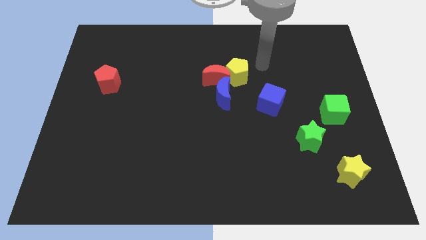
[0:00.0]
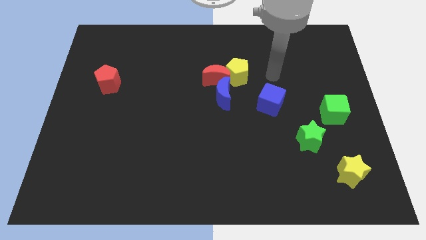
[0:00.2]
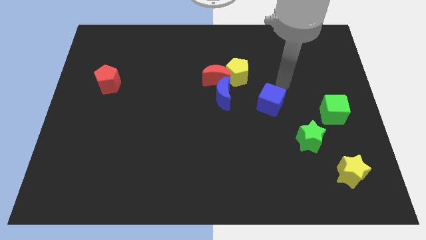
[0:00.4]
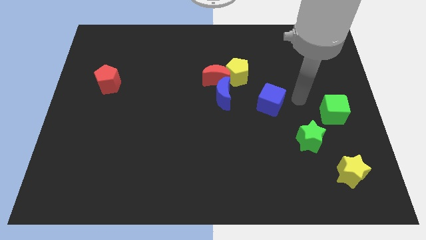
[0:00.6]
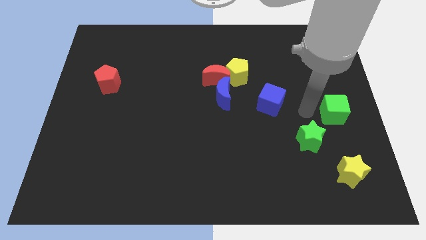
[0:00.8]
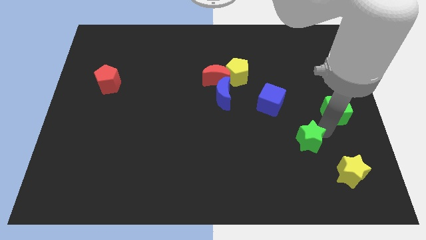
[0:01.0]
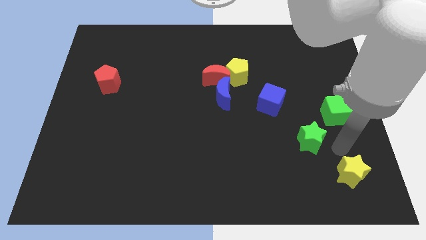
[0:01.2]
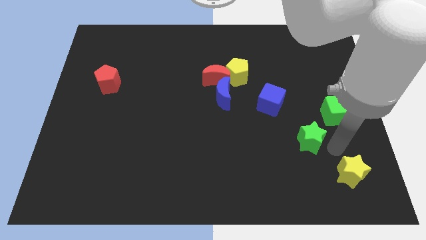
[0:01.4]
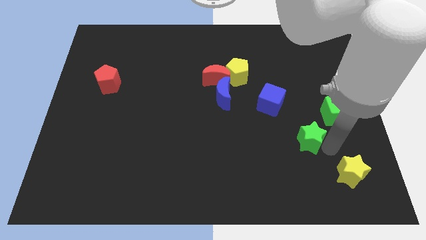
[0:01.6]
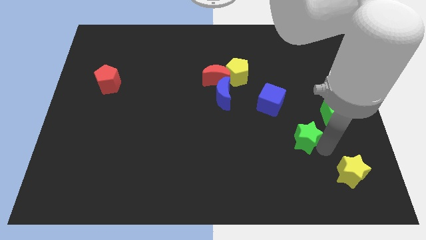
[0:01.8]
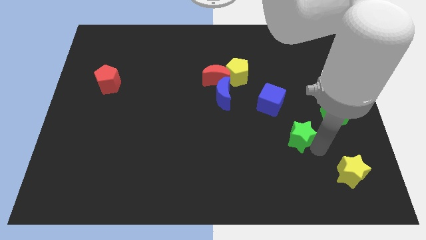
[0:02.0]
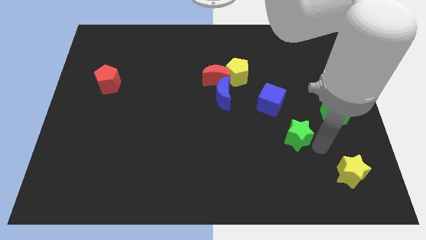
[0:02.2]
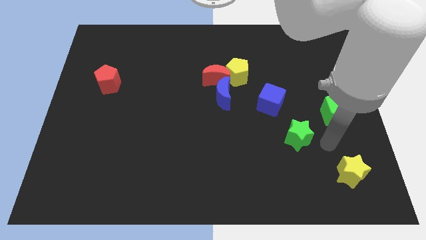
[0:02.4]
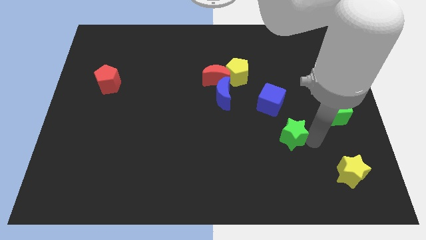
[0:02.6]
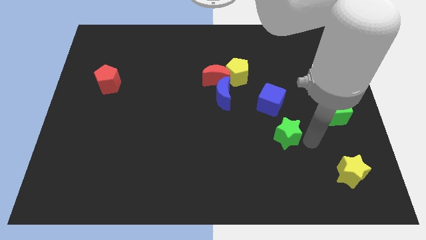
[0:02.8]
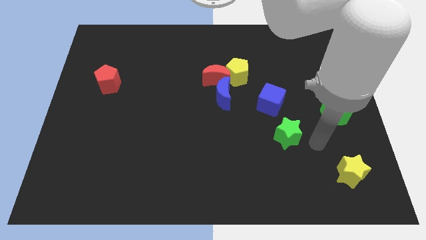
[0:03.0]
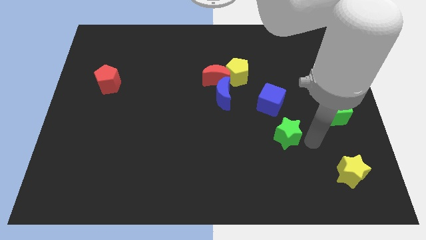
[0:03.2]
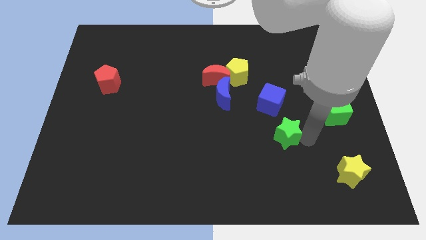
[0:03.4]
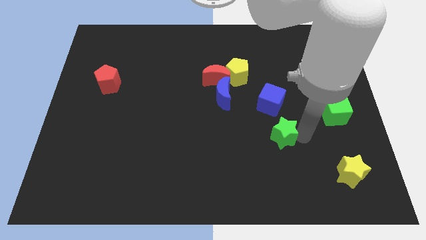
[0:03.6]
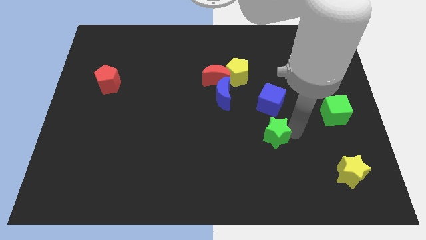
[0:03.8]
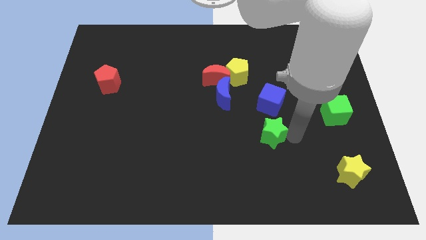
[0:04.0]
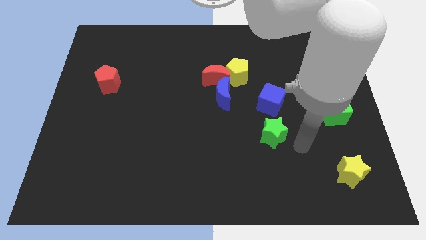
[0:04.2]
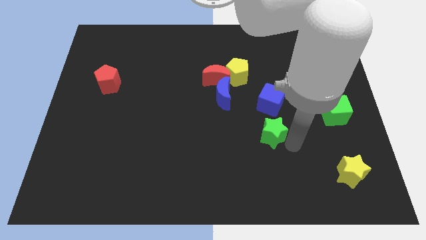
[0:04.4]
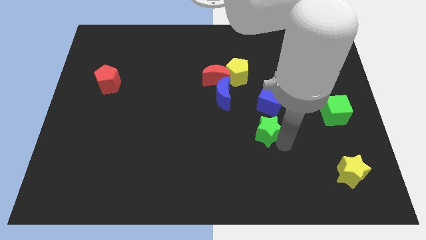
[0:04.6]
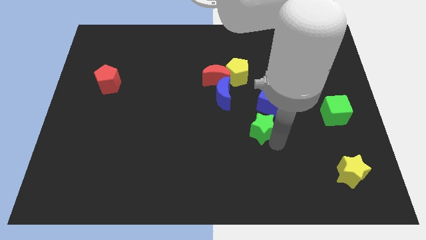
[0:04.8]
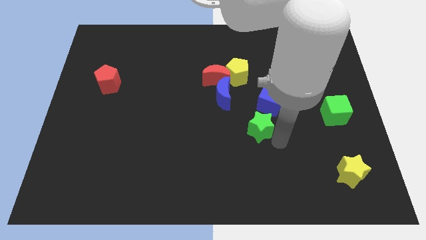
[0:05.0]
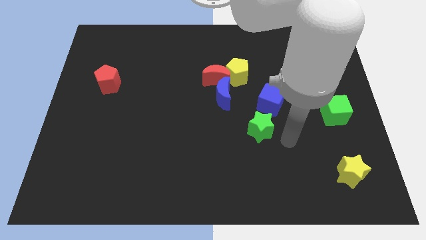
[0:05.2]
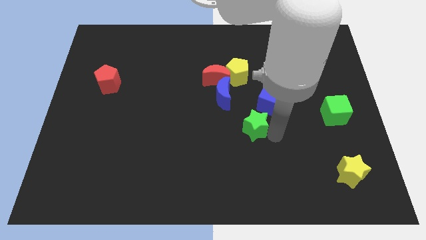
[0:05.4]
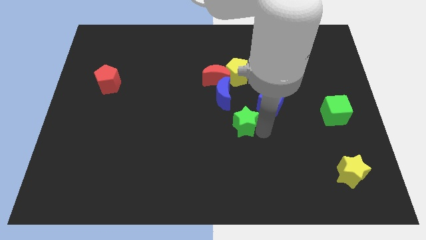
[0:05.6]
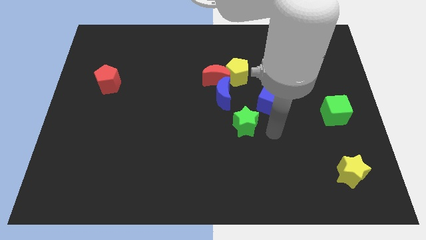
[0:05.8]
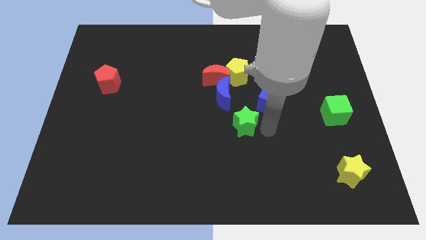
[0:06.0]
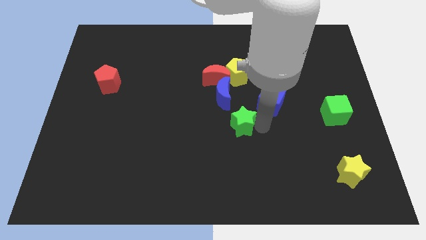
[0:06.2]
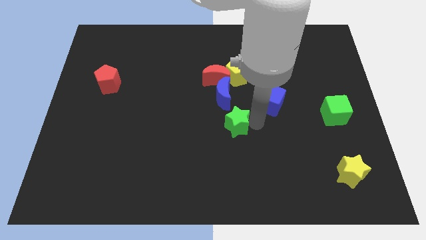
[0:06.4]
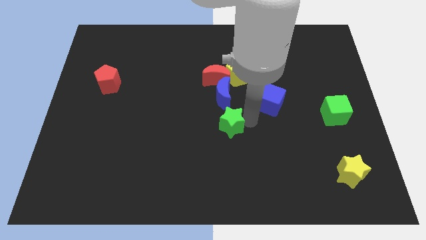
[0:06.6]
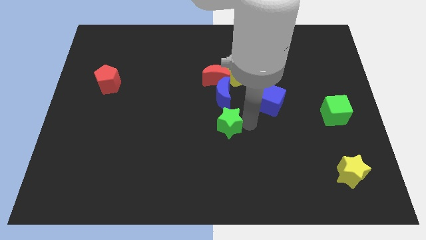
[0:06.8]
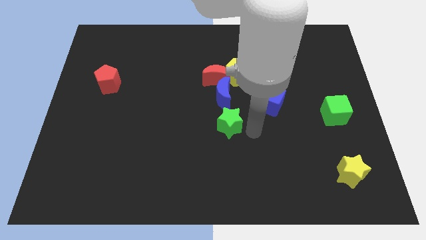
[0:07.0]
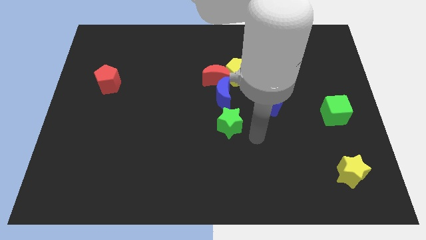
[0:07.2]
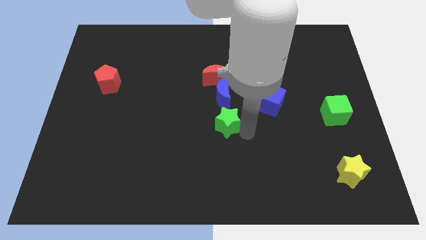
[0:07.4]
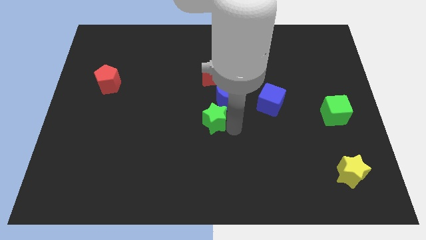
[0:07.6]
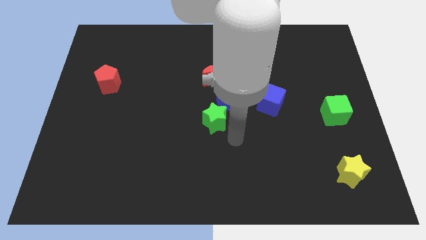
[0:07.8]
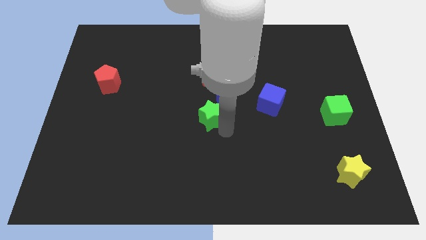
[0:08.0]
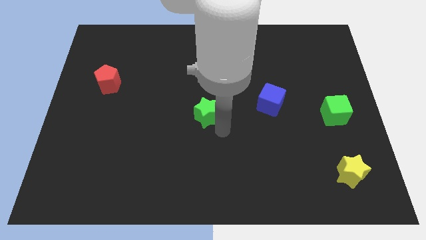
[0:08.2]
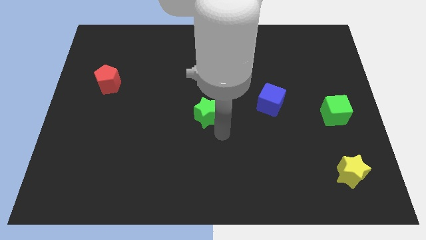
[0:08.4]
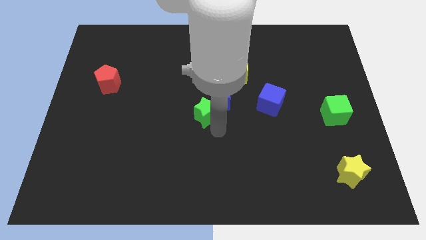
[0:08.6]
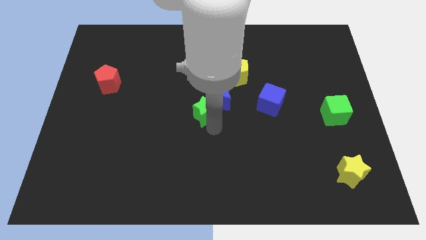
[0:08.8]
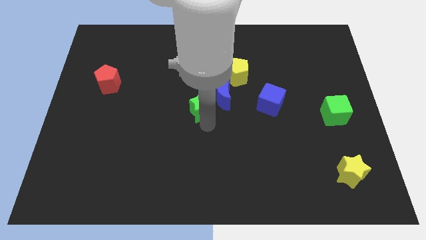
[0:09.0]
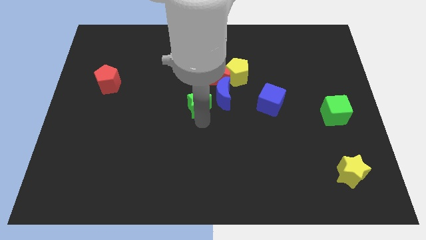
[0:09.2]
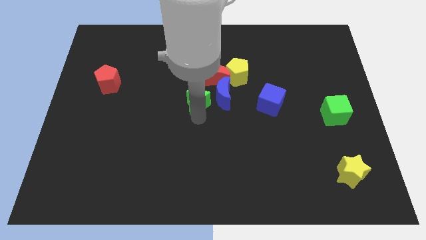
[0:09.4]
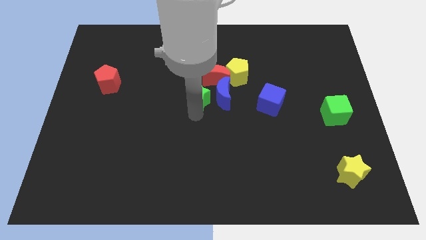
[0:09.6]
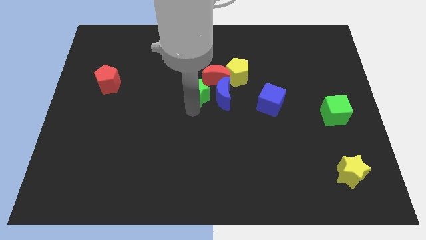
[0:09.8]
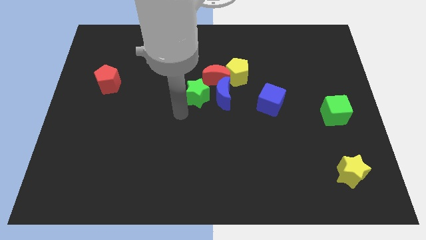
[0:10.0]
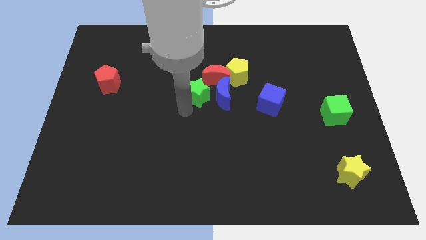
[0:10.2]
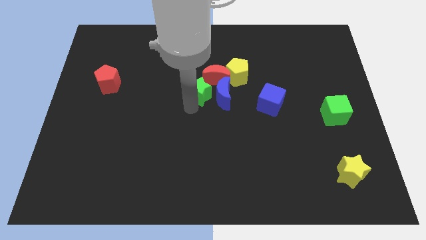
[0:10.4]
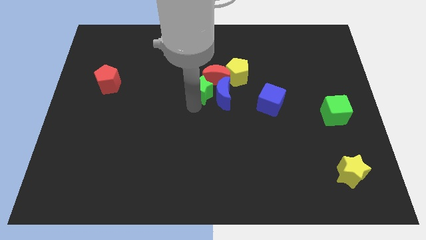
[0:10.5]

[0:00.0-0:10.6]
put the green star to the red moon

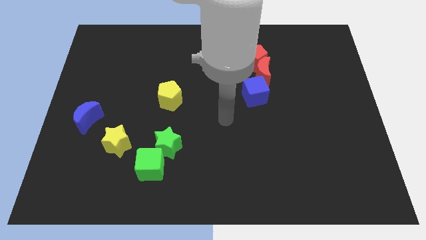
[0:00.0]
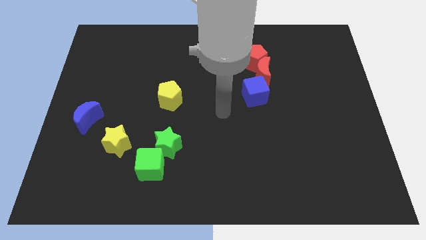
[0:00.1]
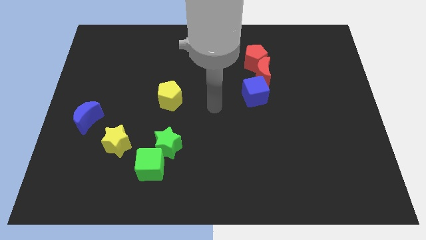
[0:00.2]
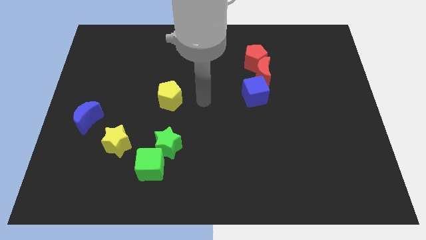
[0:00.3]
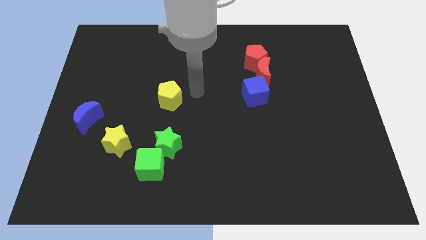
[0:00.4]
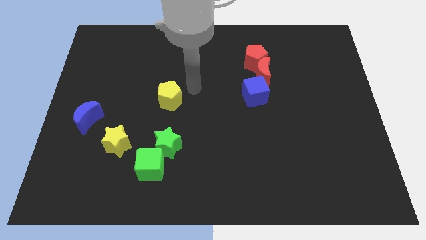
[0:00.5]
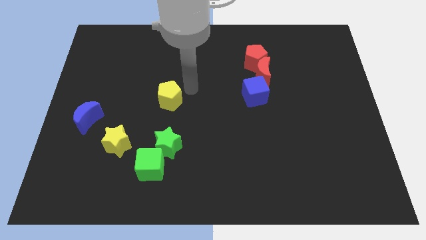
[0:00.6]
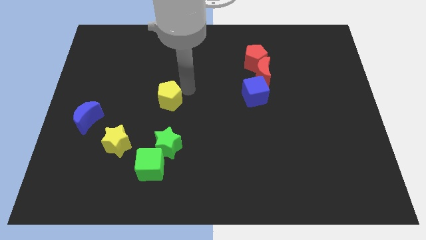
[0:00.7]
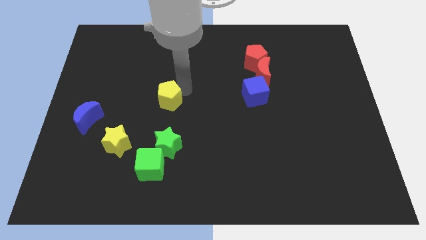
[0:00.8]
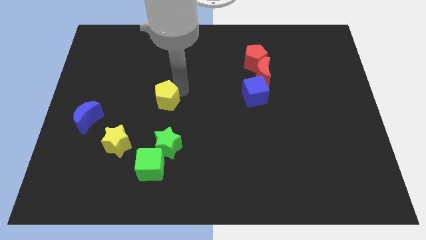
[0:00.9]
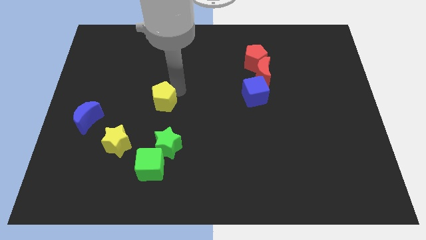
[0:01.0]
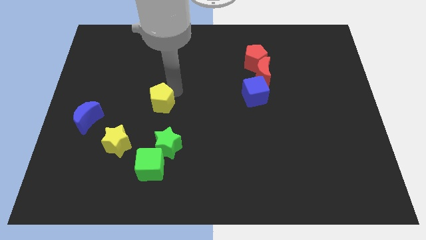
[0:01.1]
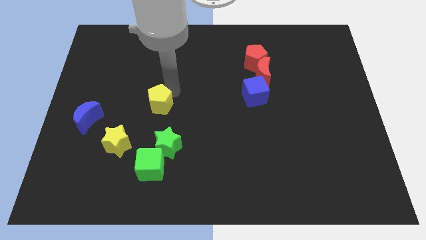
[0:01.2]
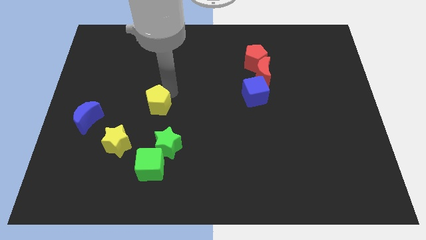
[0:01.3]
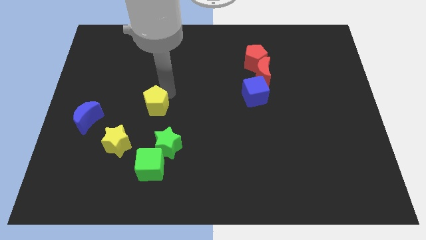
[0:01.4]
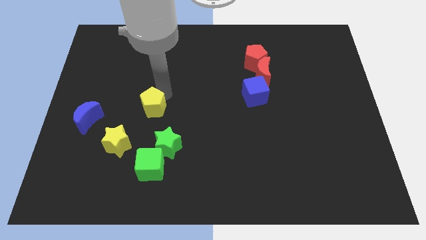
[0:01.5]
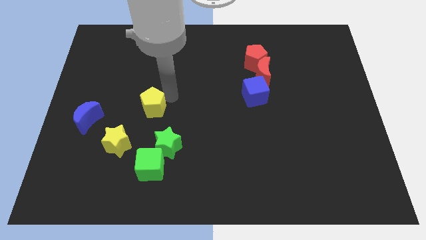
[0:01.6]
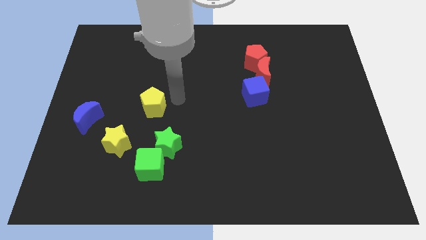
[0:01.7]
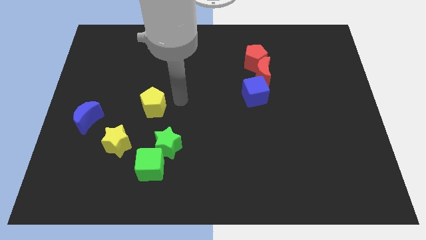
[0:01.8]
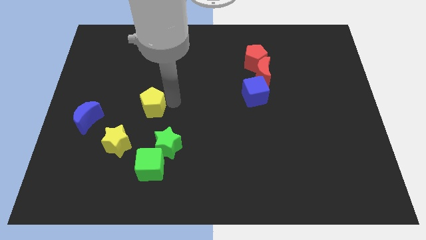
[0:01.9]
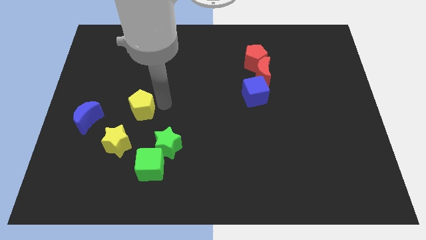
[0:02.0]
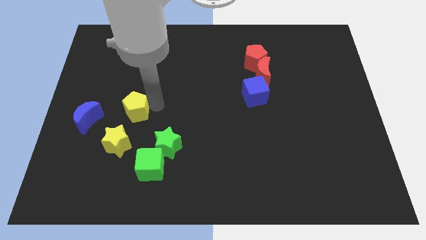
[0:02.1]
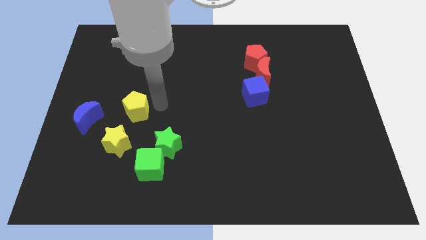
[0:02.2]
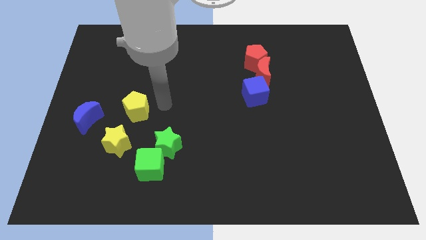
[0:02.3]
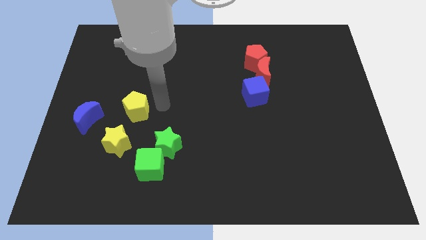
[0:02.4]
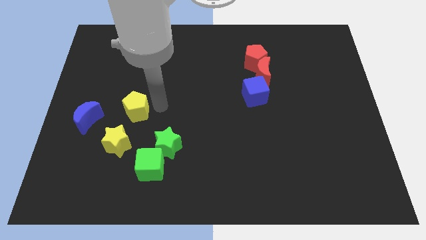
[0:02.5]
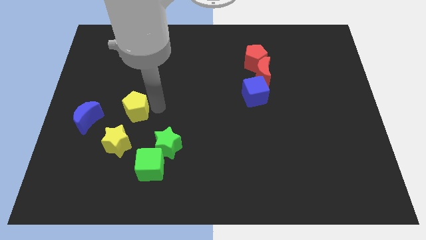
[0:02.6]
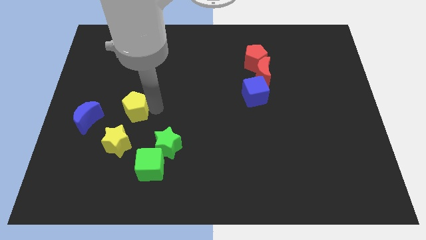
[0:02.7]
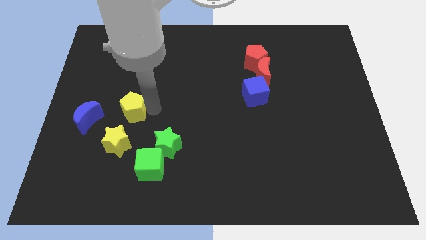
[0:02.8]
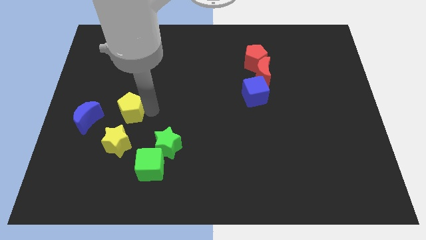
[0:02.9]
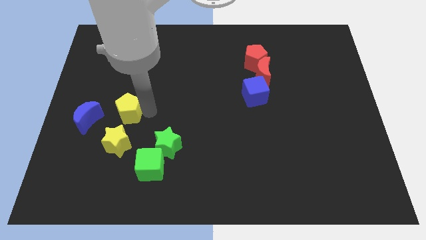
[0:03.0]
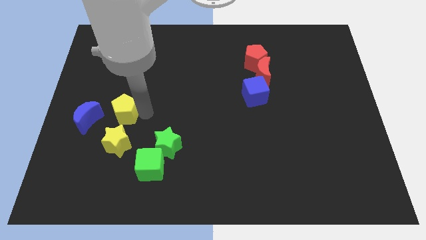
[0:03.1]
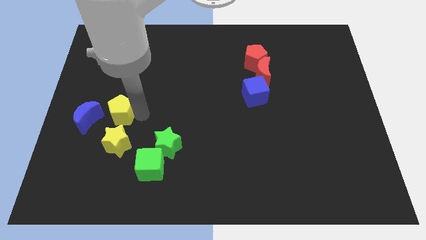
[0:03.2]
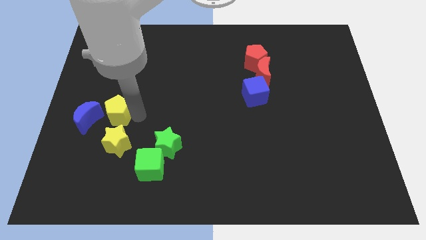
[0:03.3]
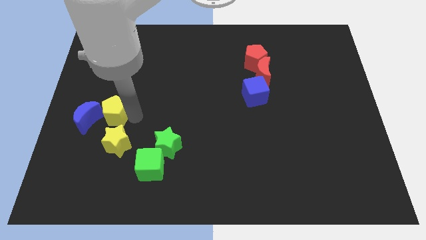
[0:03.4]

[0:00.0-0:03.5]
move the yellow pentagon close to the blue moon
